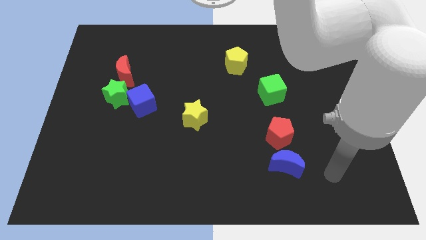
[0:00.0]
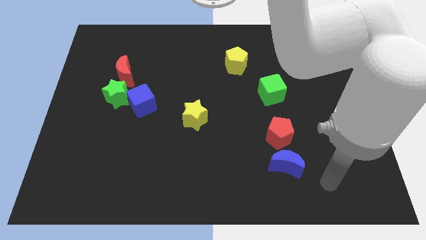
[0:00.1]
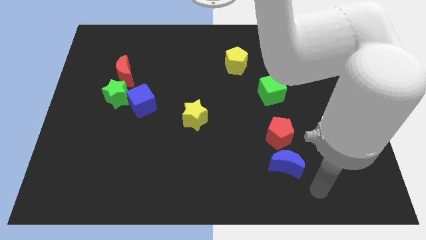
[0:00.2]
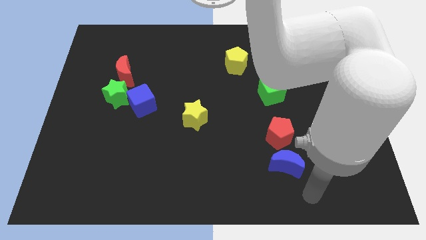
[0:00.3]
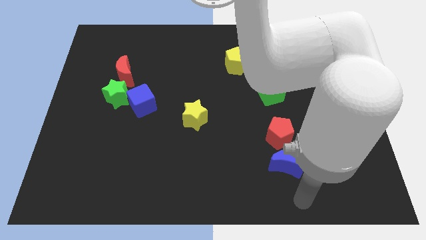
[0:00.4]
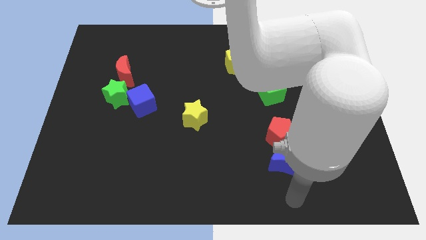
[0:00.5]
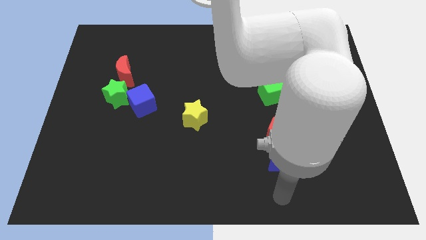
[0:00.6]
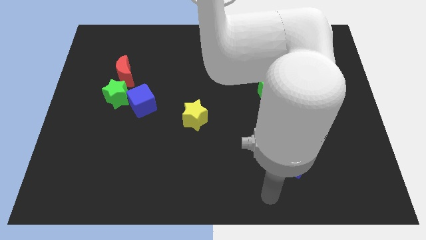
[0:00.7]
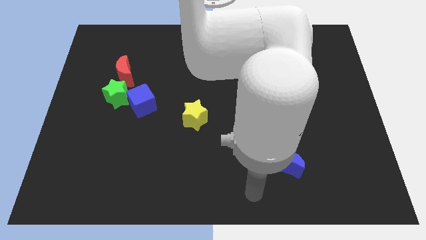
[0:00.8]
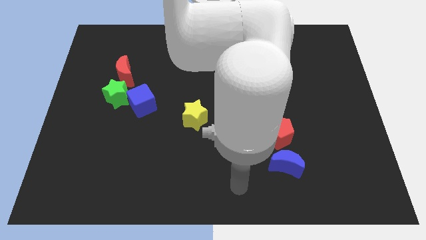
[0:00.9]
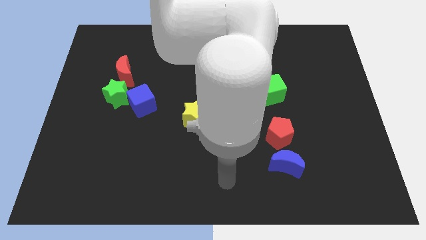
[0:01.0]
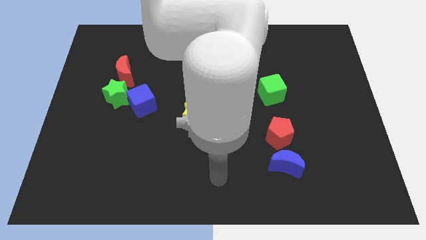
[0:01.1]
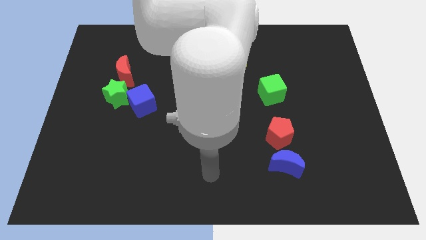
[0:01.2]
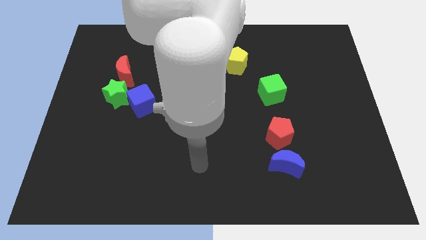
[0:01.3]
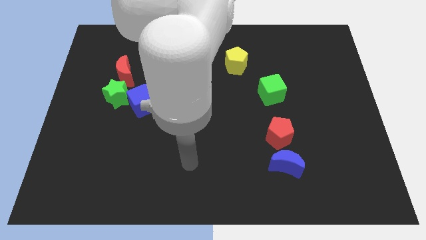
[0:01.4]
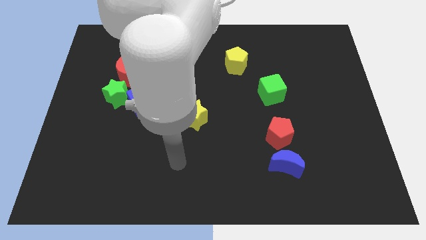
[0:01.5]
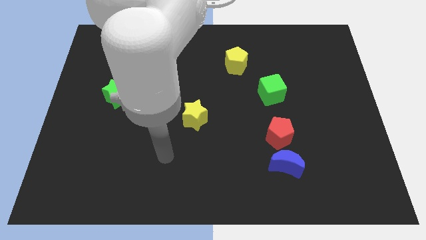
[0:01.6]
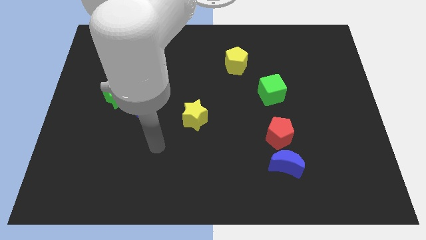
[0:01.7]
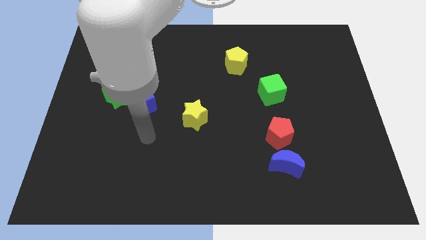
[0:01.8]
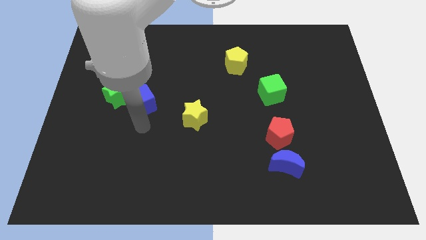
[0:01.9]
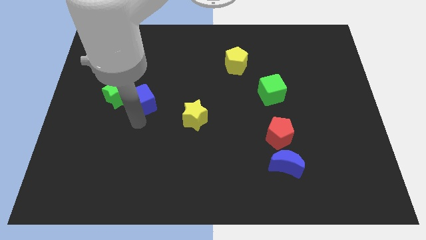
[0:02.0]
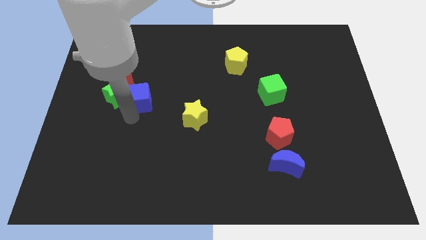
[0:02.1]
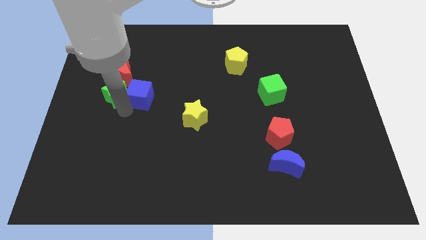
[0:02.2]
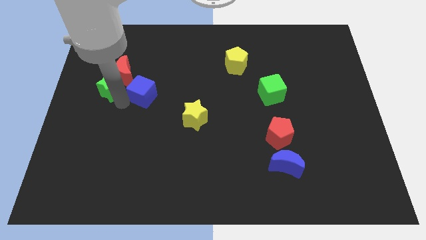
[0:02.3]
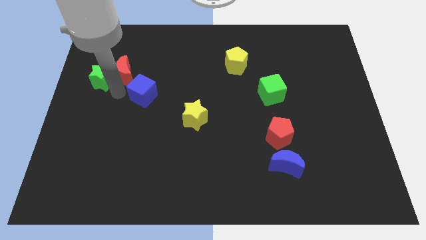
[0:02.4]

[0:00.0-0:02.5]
pull the blue cube apart from the green star

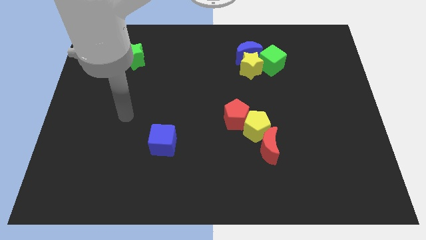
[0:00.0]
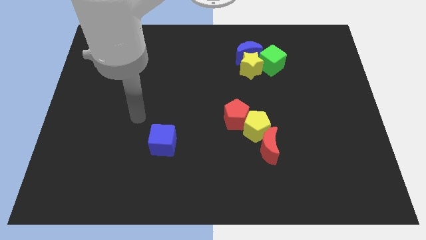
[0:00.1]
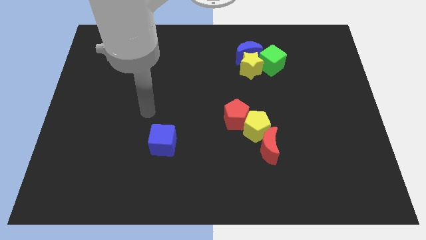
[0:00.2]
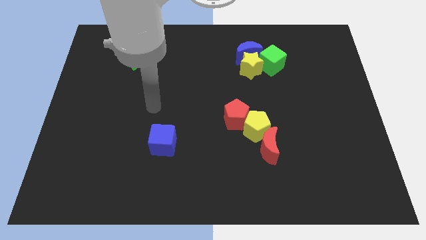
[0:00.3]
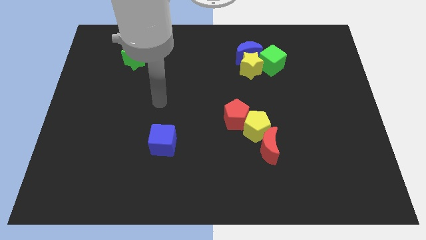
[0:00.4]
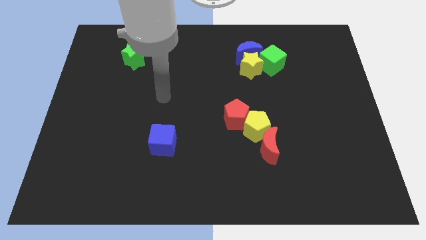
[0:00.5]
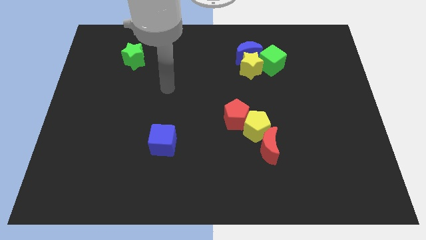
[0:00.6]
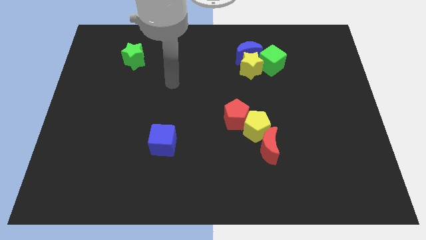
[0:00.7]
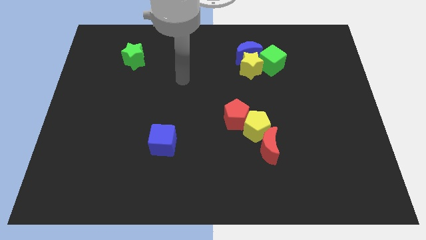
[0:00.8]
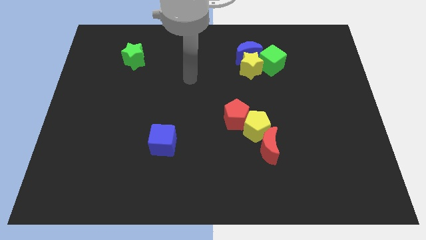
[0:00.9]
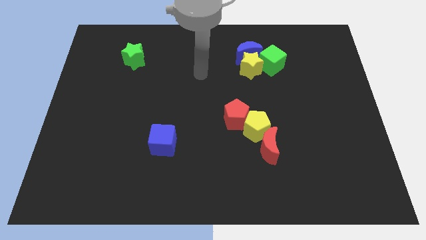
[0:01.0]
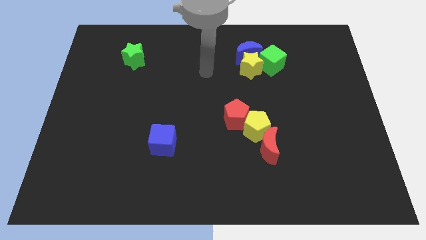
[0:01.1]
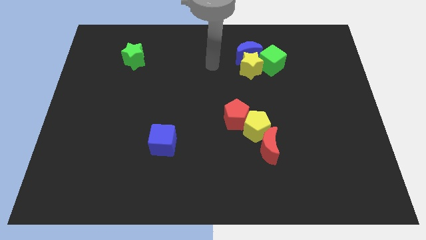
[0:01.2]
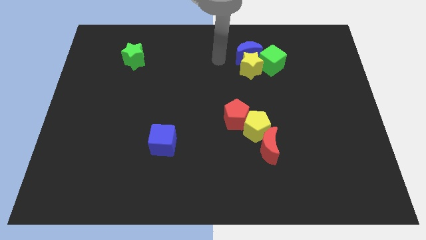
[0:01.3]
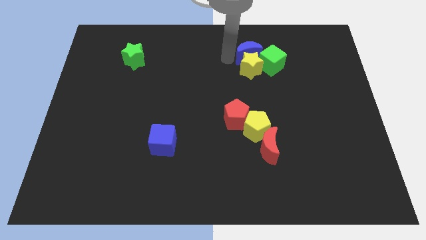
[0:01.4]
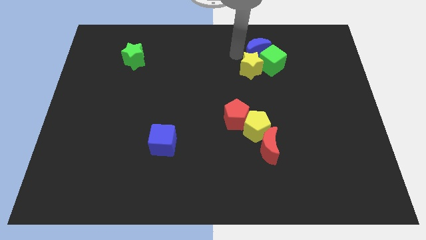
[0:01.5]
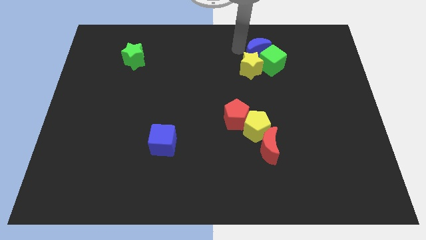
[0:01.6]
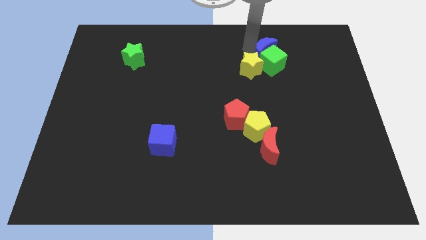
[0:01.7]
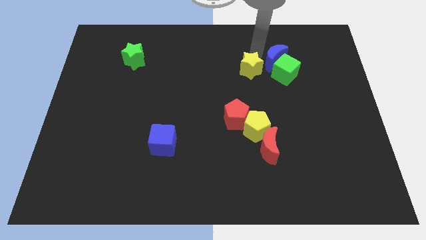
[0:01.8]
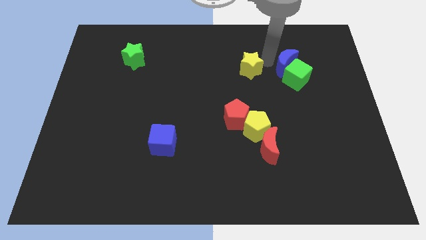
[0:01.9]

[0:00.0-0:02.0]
pull the yellow star apart from the blue moon and green cube

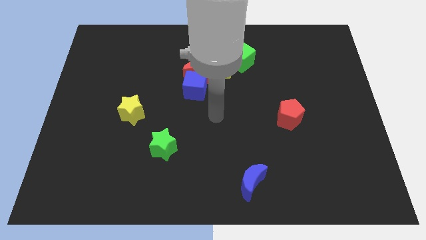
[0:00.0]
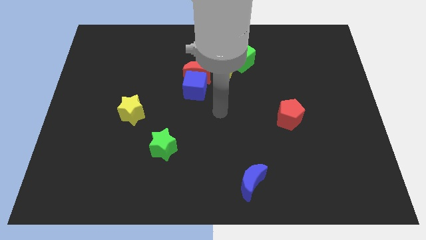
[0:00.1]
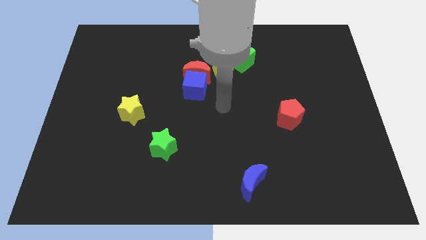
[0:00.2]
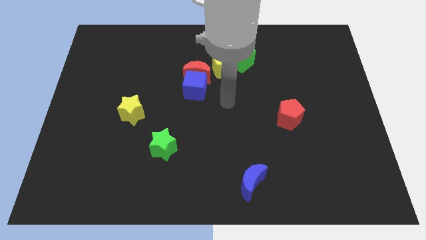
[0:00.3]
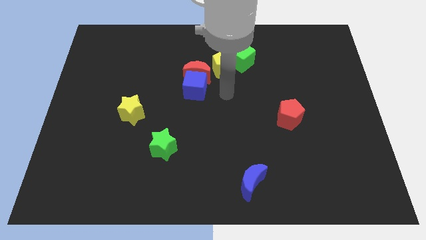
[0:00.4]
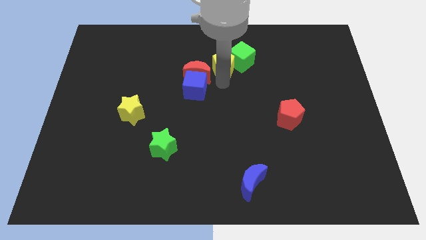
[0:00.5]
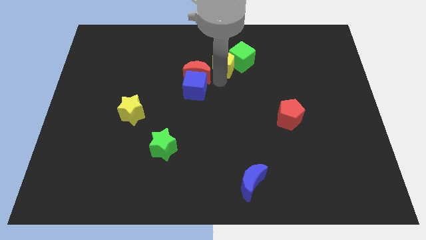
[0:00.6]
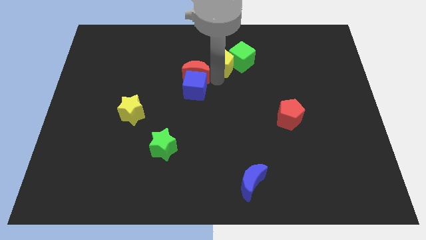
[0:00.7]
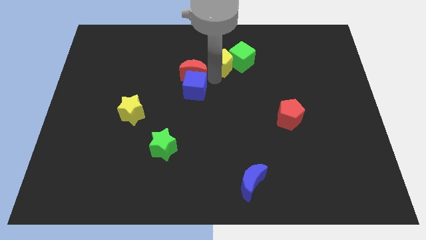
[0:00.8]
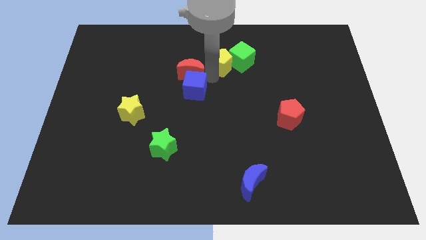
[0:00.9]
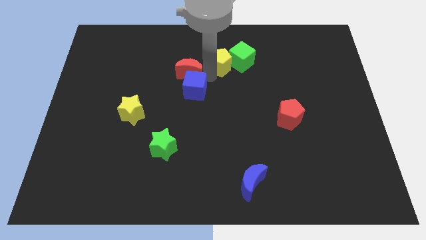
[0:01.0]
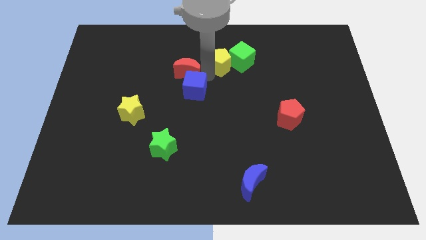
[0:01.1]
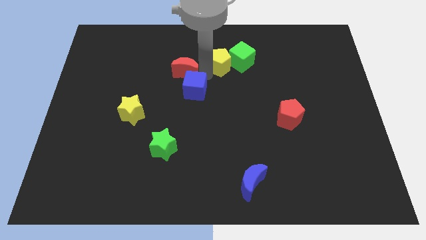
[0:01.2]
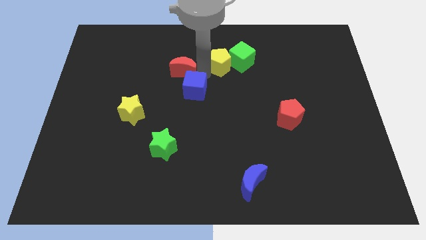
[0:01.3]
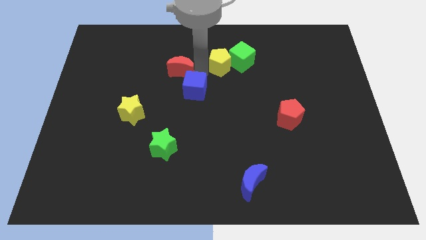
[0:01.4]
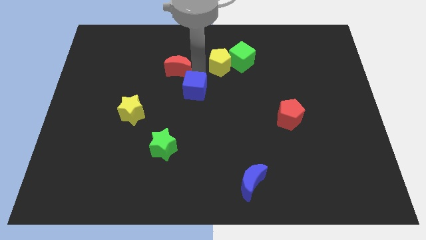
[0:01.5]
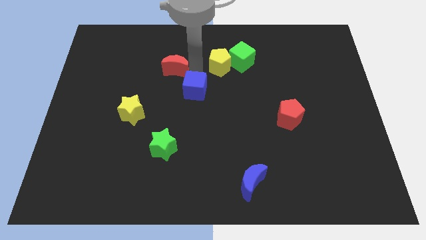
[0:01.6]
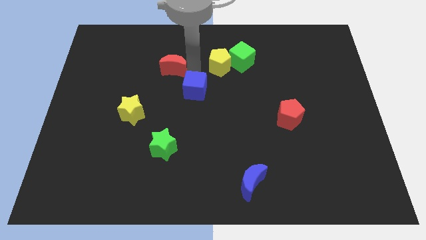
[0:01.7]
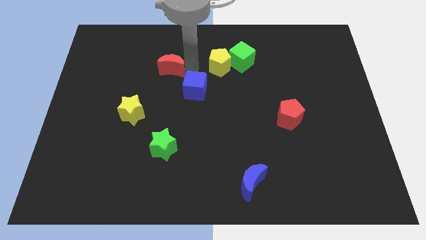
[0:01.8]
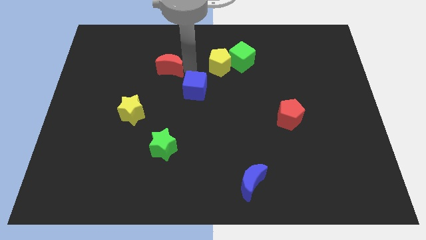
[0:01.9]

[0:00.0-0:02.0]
separate the red moon from the blue cube and yellow pentagon

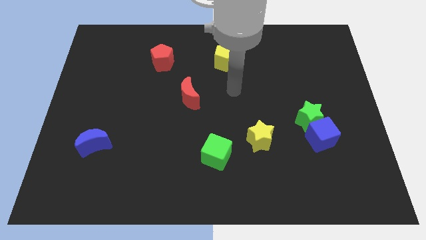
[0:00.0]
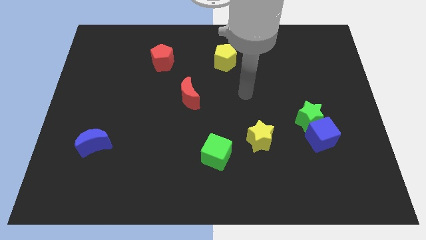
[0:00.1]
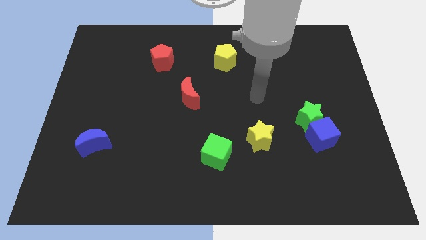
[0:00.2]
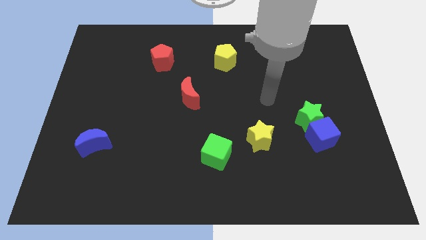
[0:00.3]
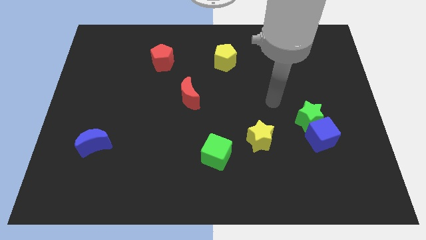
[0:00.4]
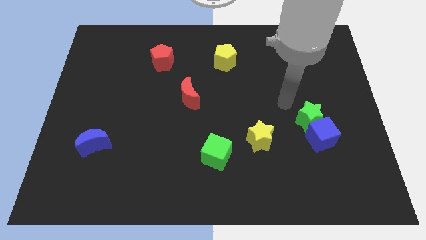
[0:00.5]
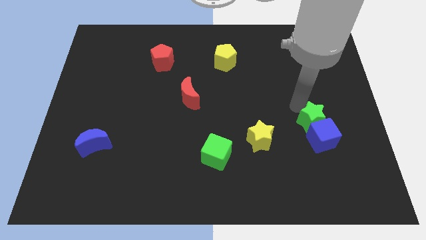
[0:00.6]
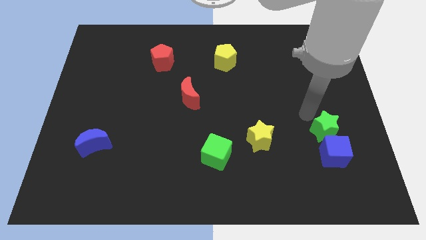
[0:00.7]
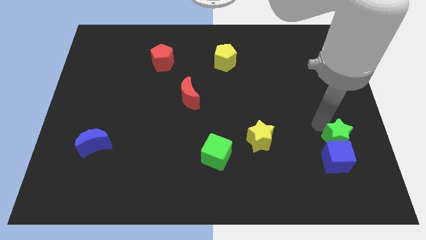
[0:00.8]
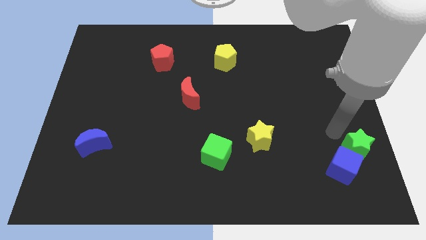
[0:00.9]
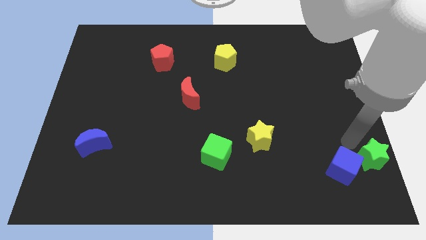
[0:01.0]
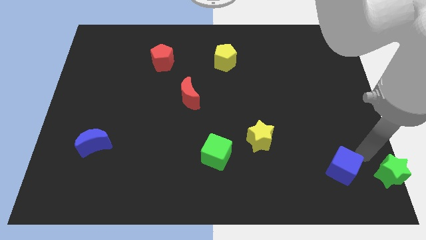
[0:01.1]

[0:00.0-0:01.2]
move the blue cube away from the green star

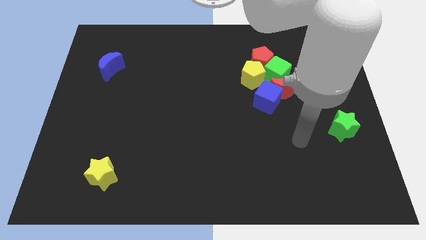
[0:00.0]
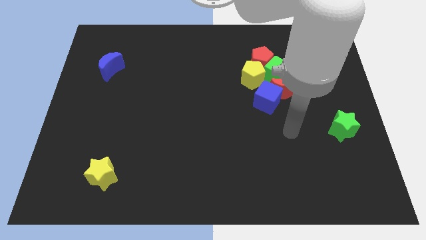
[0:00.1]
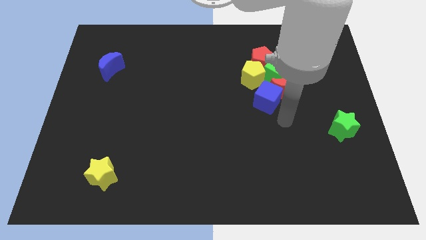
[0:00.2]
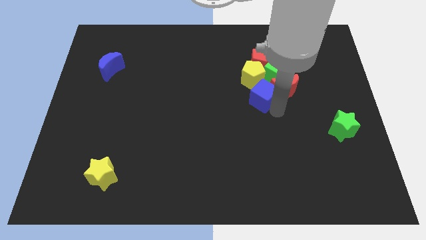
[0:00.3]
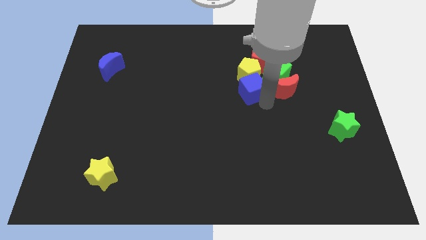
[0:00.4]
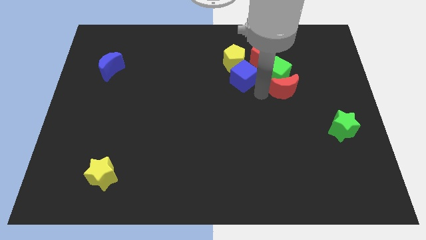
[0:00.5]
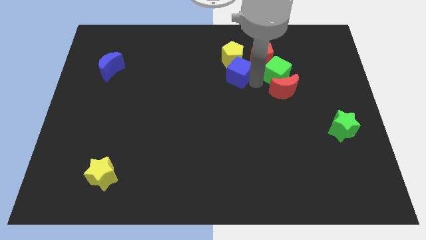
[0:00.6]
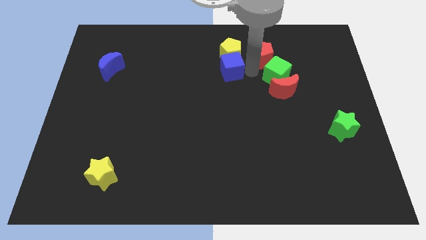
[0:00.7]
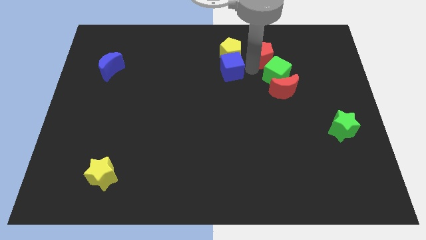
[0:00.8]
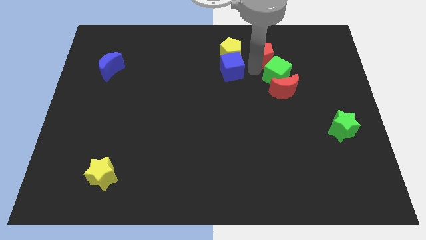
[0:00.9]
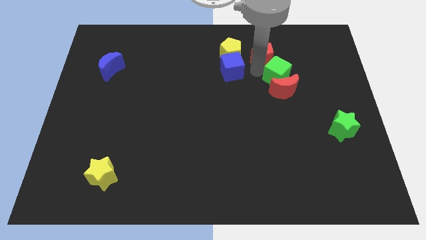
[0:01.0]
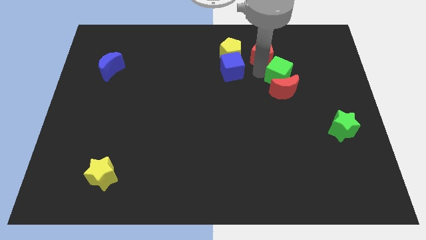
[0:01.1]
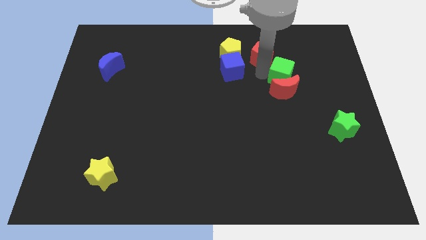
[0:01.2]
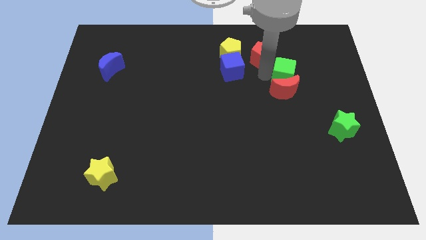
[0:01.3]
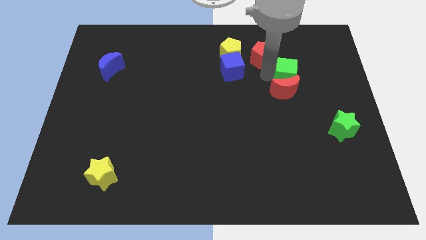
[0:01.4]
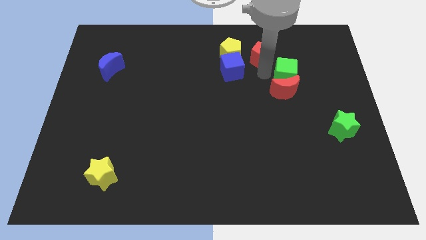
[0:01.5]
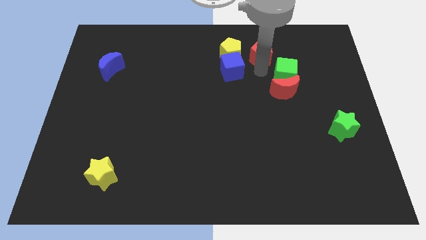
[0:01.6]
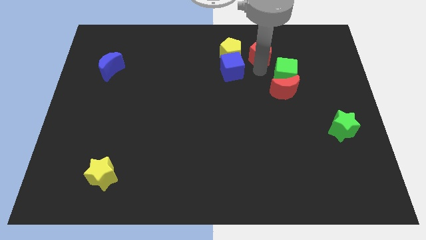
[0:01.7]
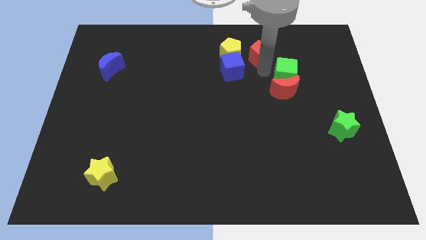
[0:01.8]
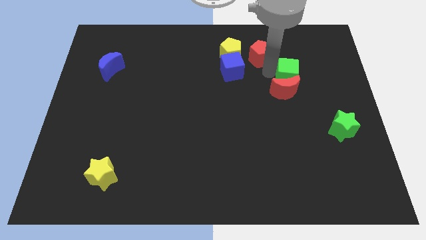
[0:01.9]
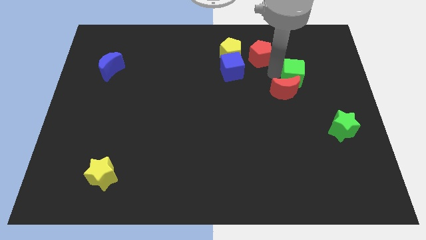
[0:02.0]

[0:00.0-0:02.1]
pull the green cube apart from the group
